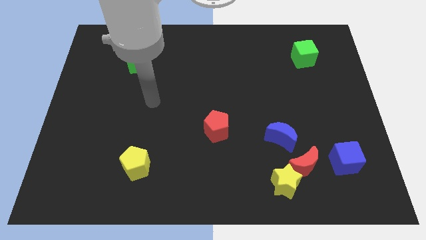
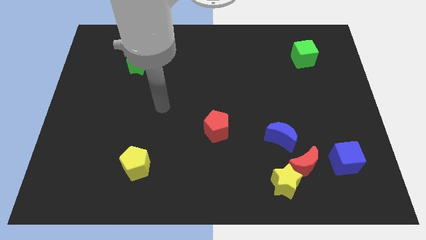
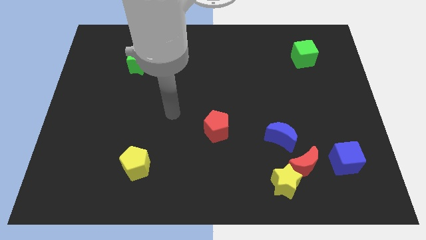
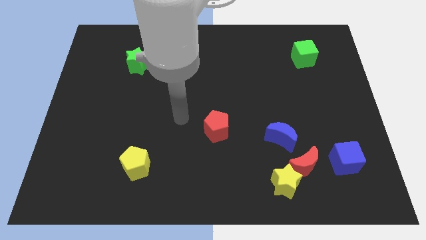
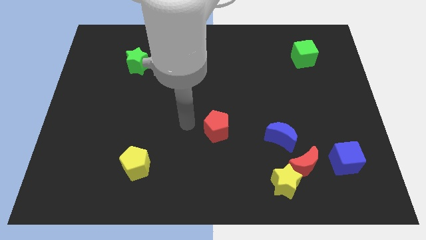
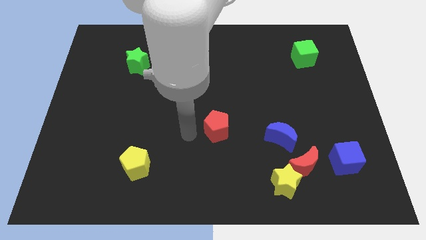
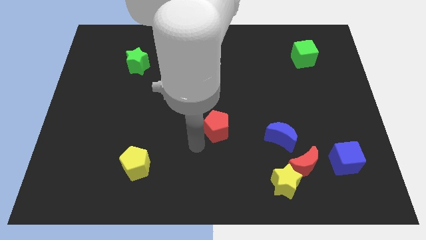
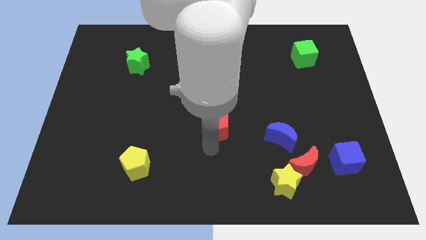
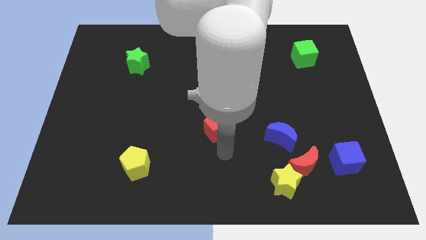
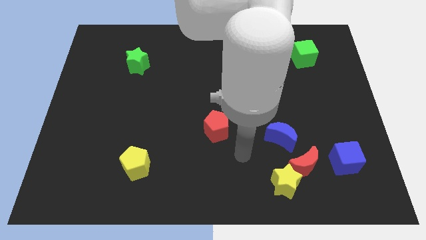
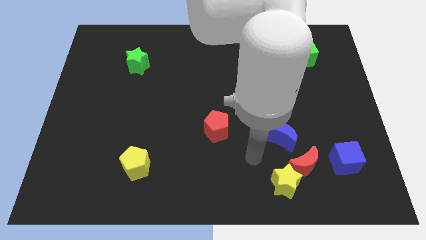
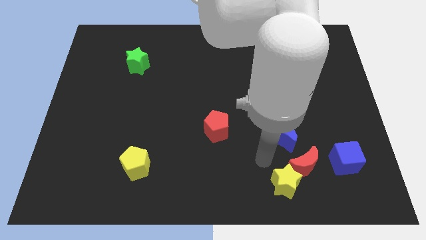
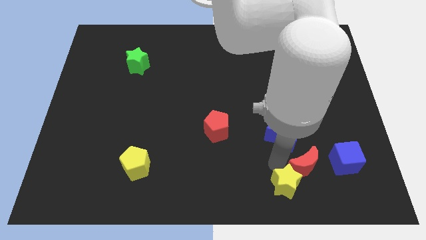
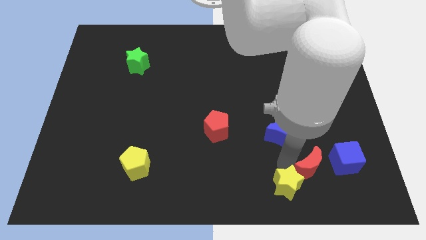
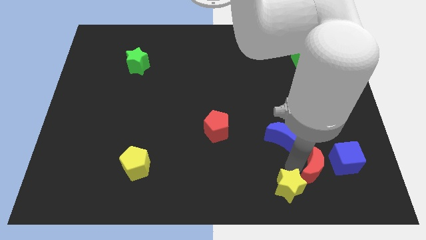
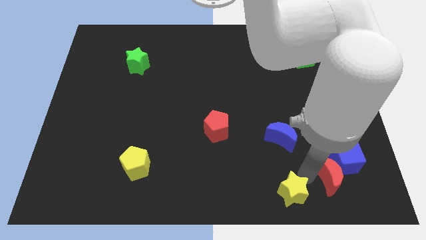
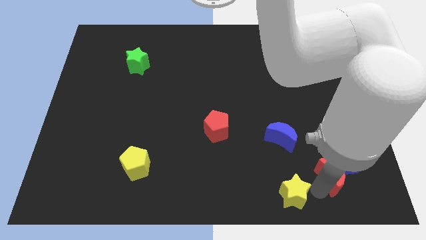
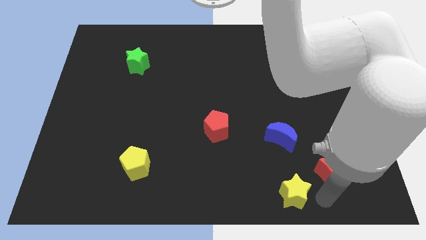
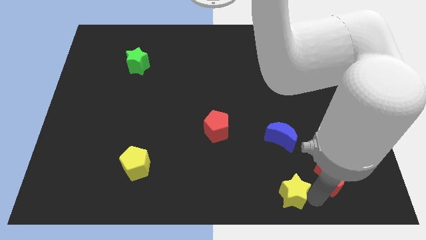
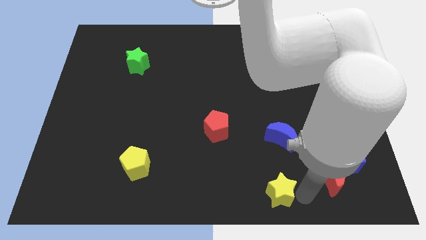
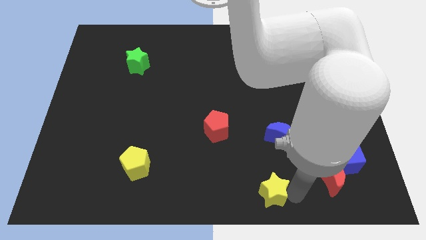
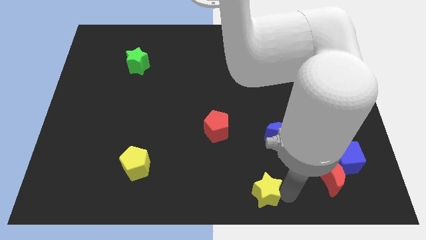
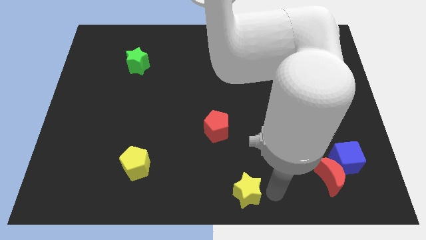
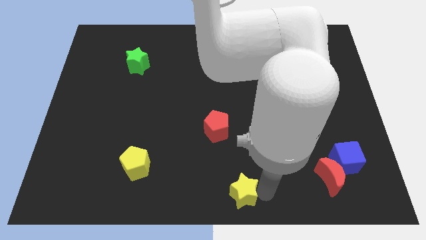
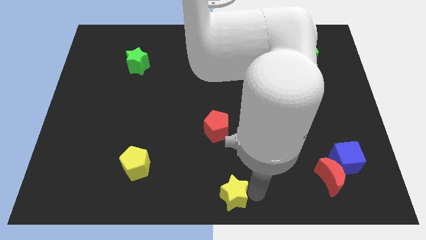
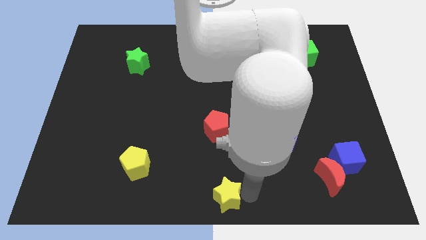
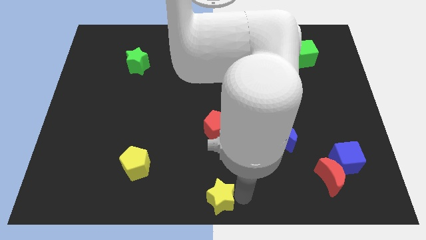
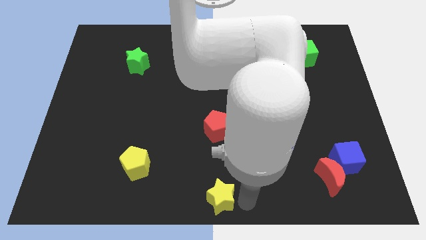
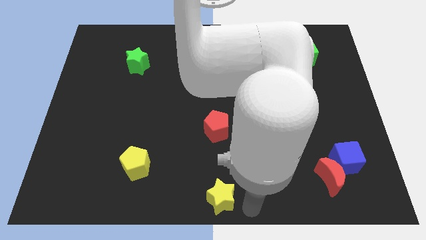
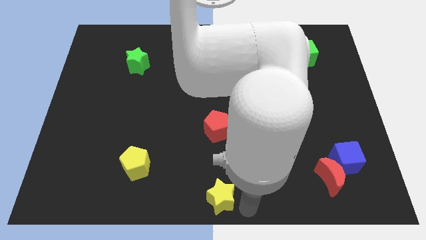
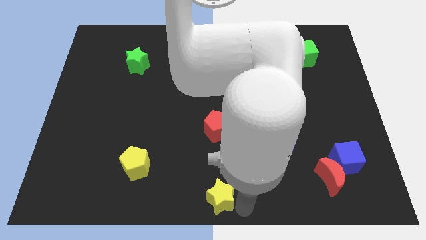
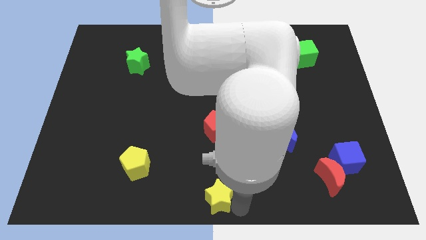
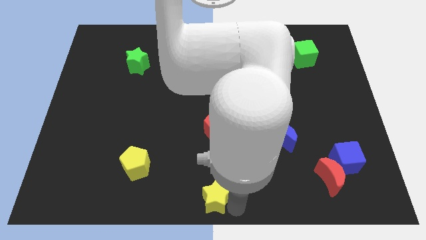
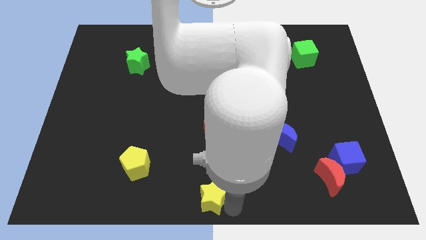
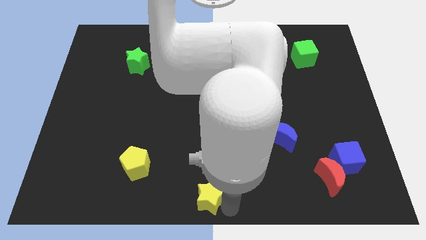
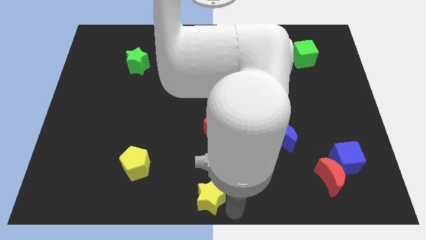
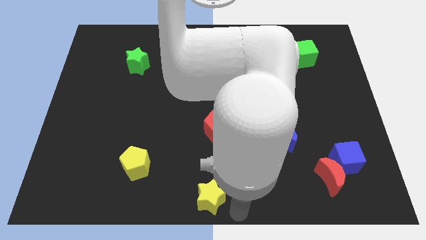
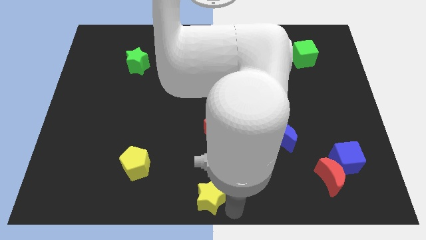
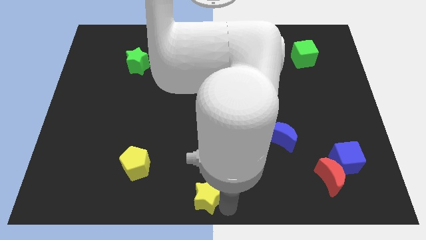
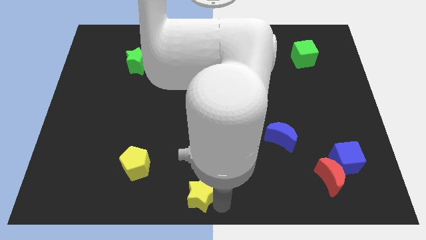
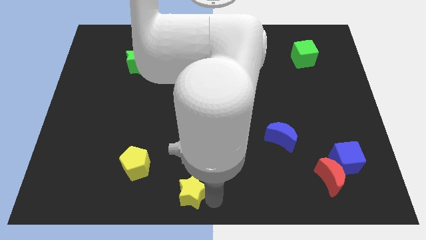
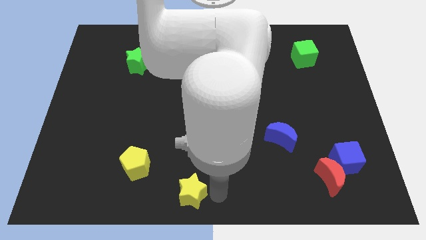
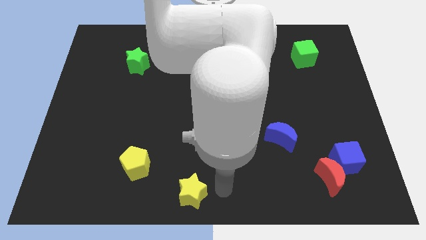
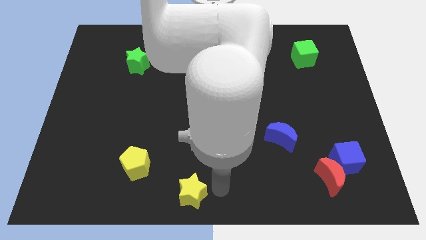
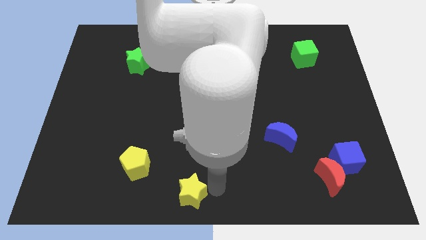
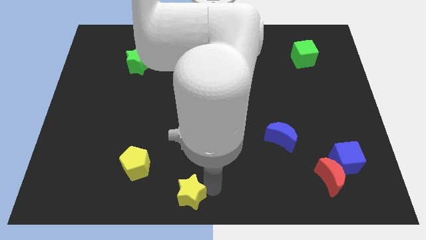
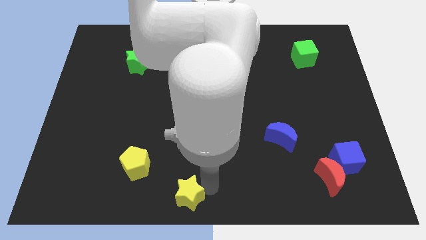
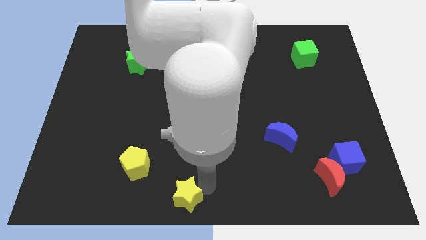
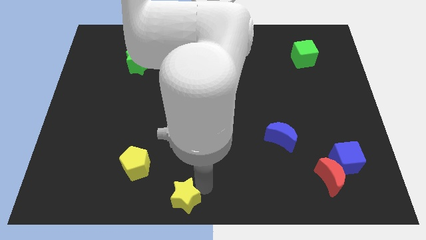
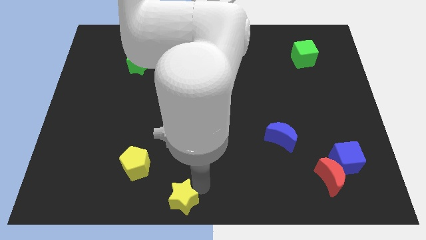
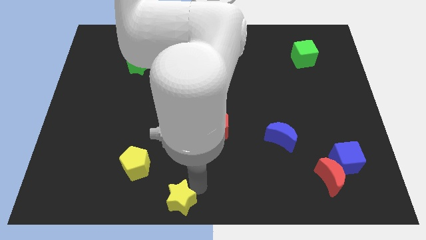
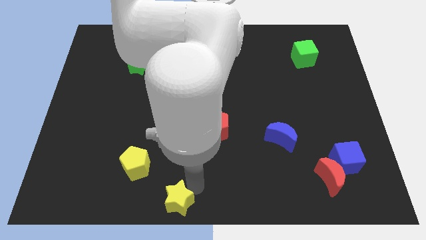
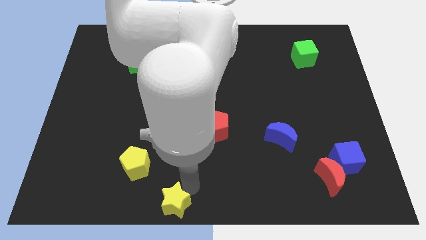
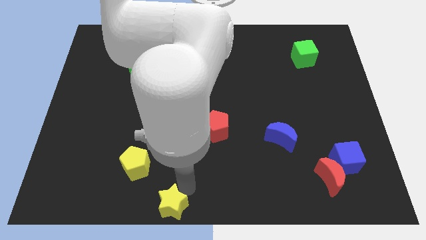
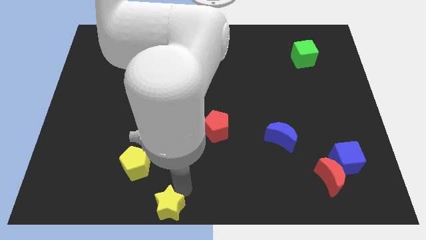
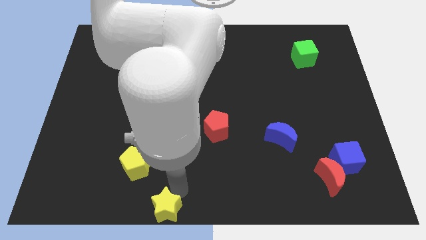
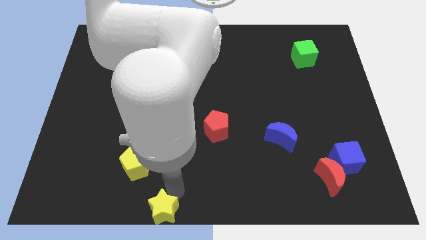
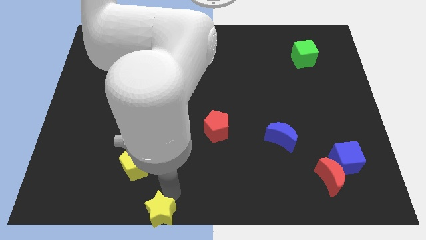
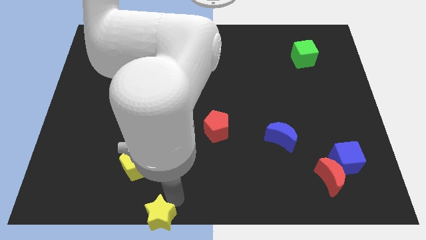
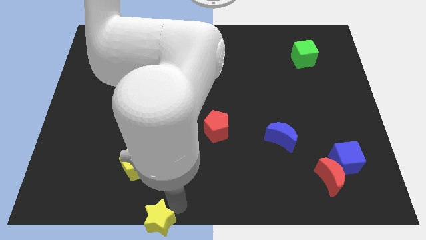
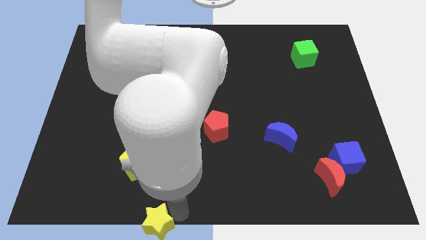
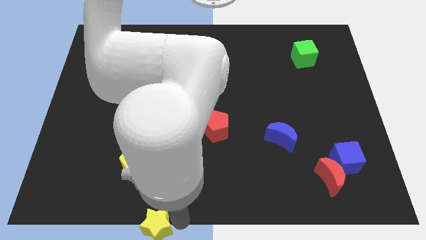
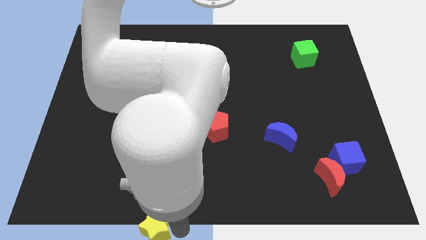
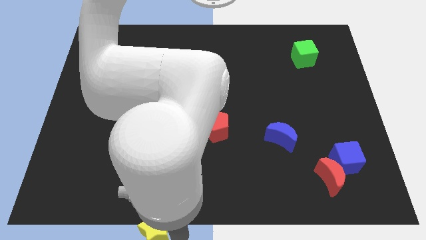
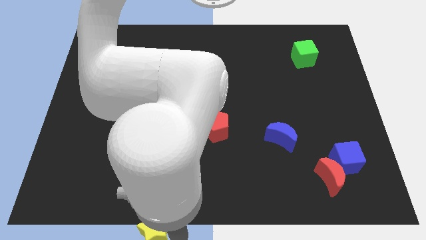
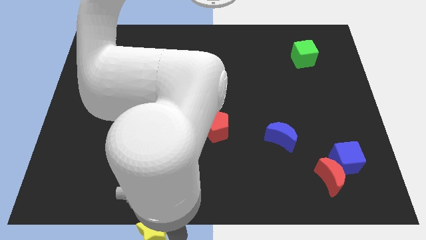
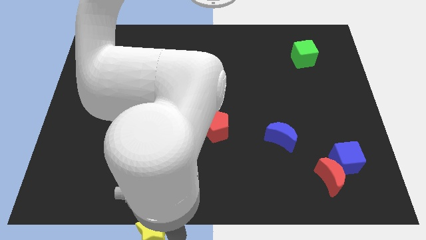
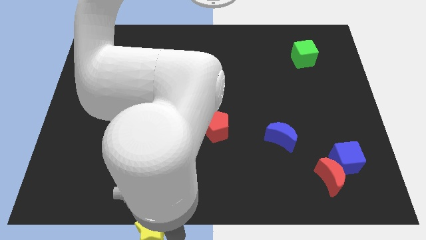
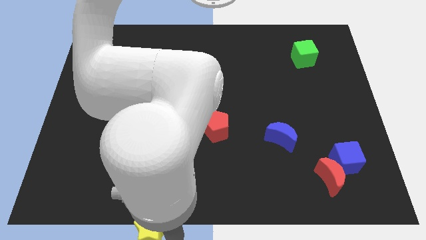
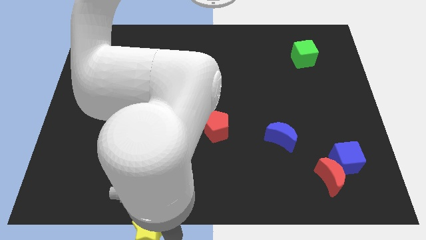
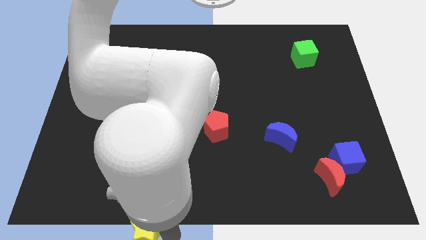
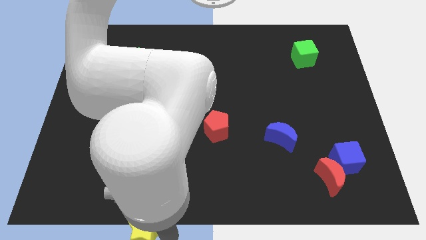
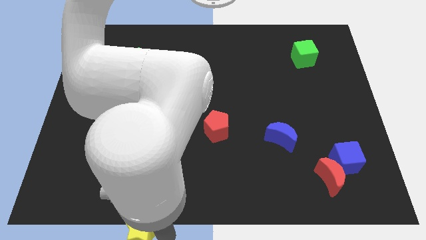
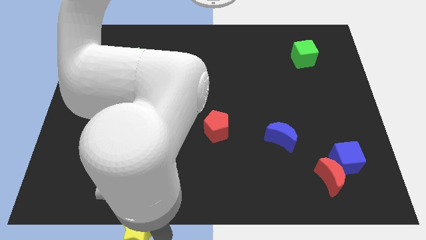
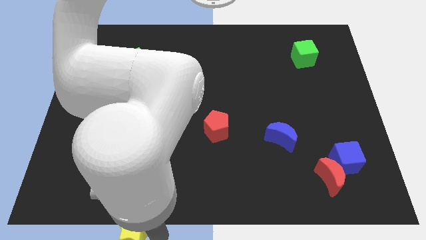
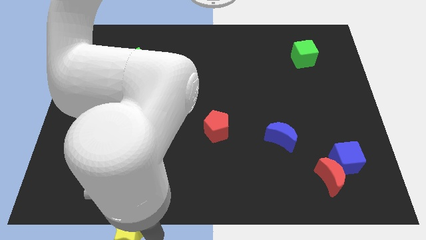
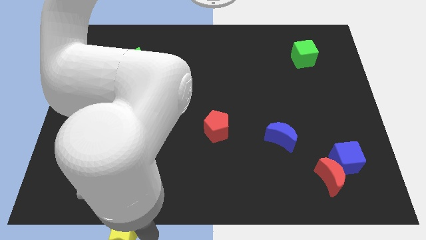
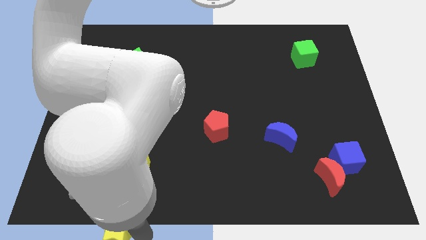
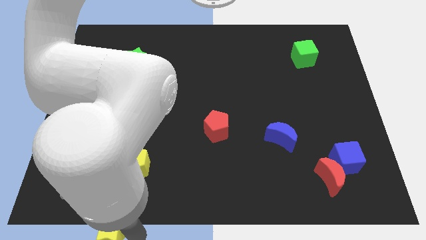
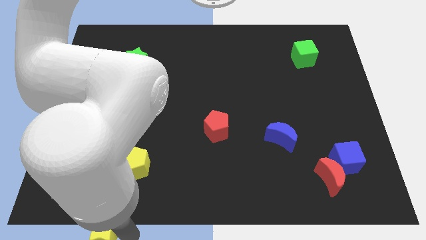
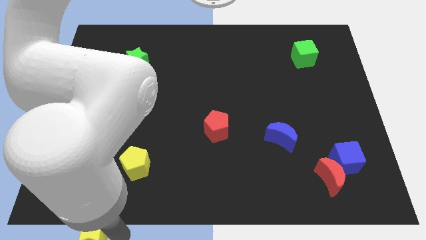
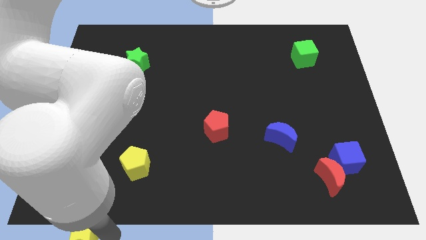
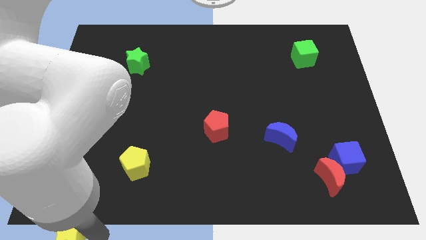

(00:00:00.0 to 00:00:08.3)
move the yellow star to the lower left corner
